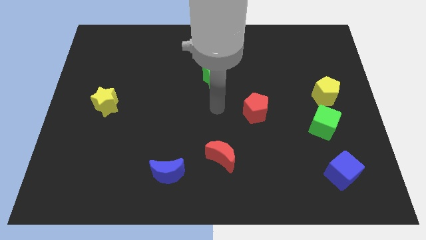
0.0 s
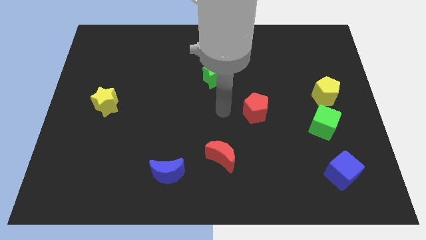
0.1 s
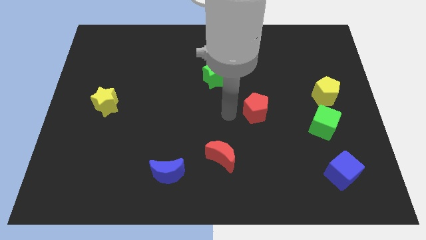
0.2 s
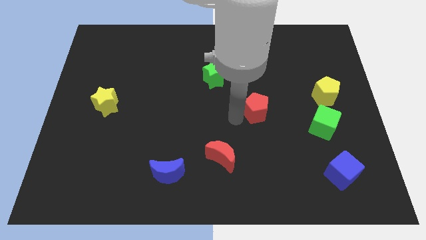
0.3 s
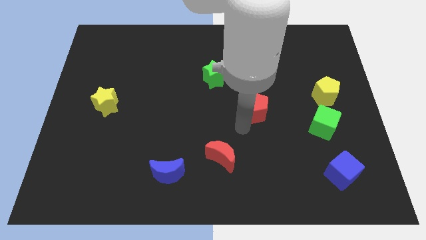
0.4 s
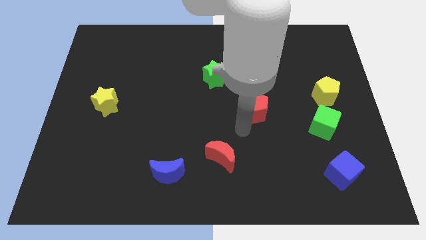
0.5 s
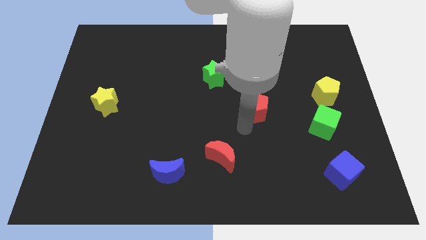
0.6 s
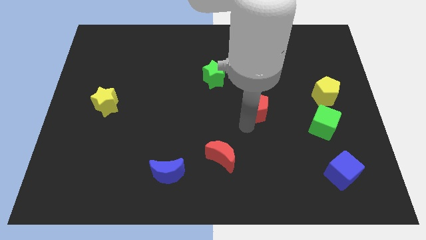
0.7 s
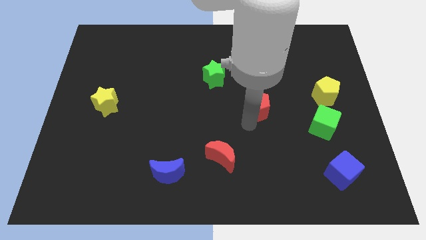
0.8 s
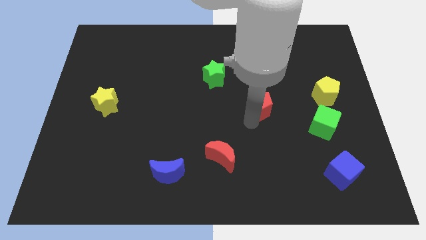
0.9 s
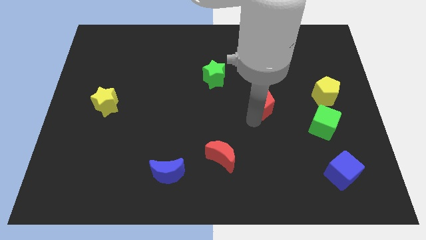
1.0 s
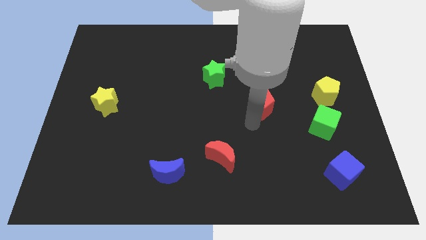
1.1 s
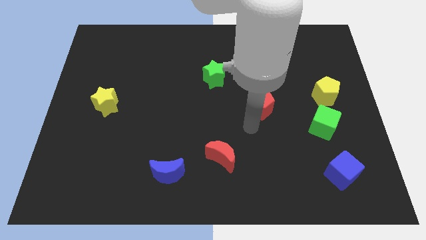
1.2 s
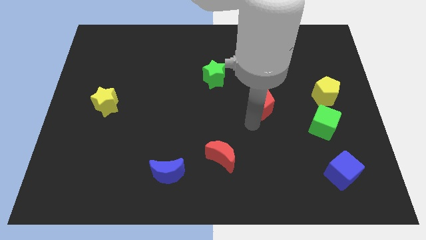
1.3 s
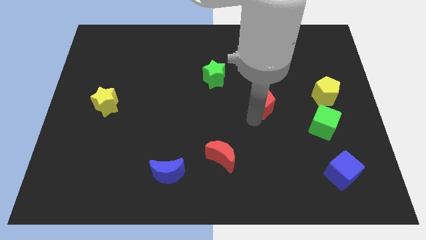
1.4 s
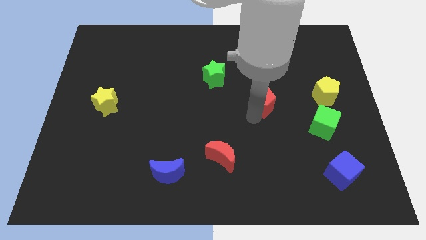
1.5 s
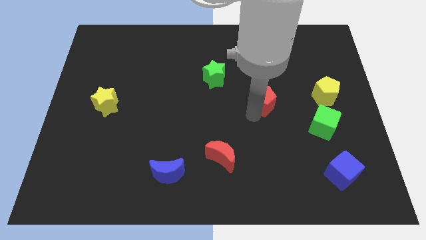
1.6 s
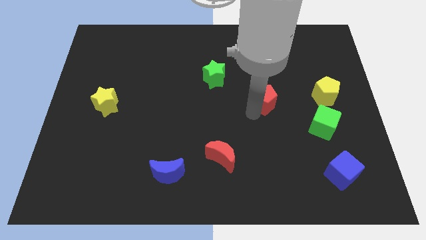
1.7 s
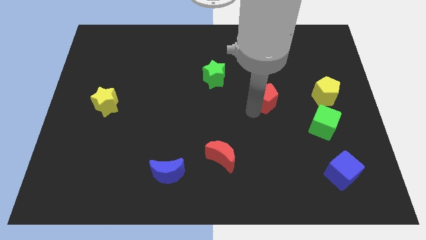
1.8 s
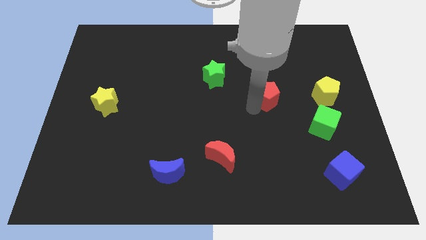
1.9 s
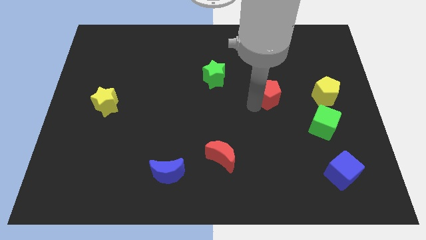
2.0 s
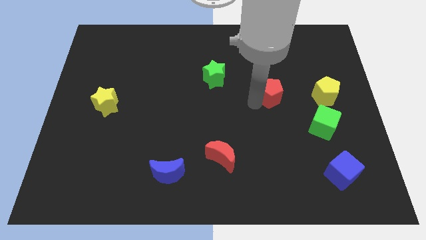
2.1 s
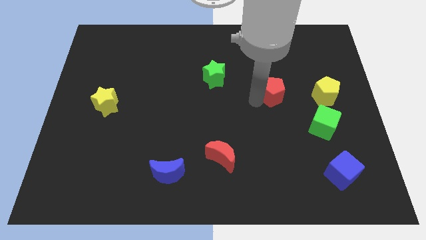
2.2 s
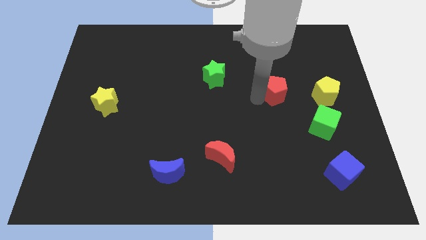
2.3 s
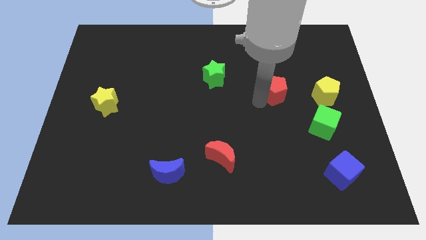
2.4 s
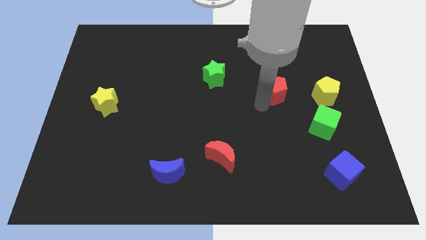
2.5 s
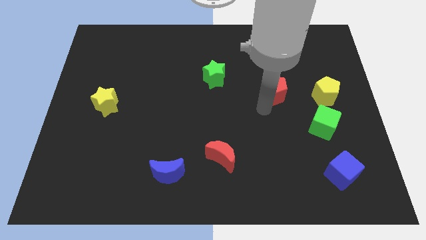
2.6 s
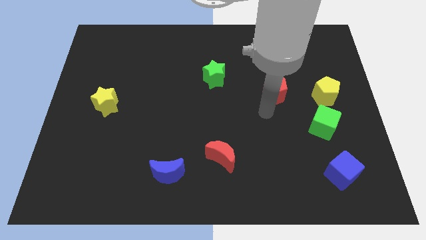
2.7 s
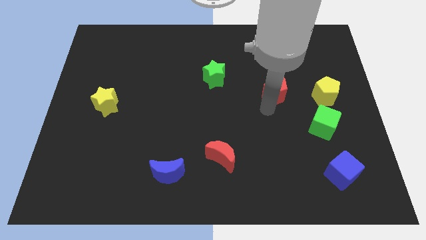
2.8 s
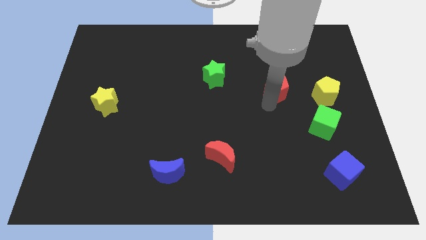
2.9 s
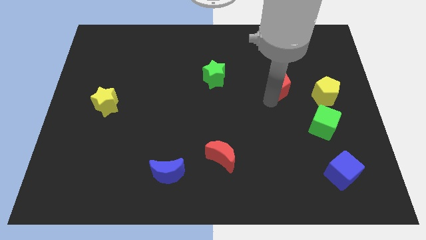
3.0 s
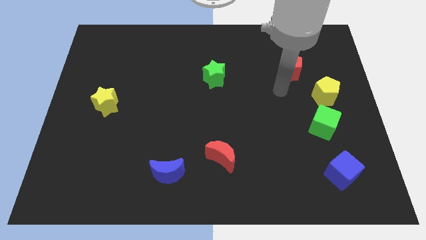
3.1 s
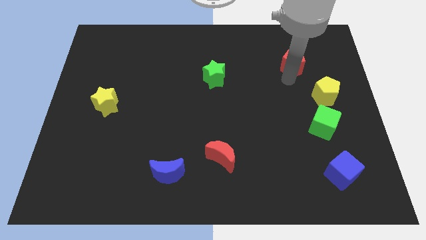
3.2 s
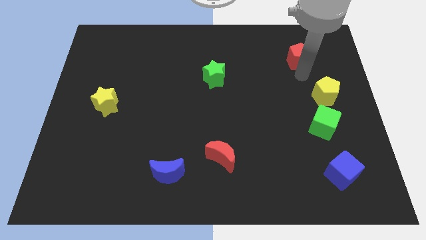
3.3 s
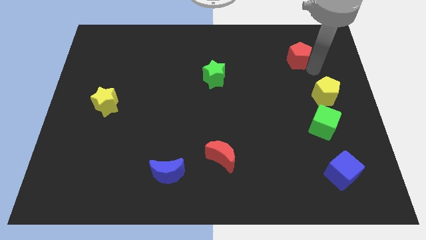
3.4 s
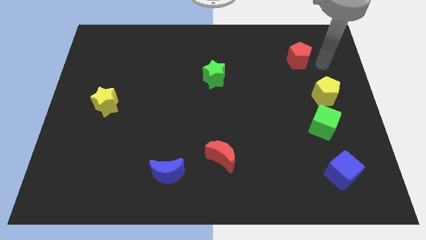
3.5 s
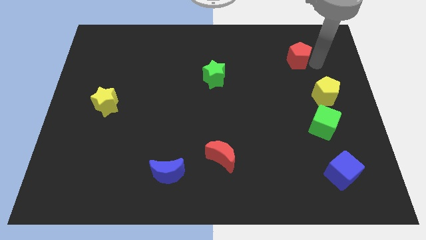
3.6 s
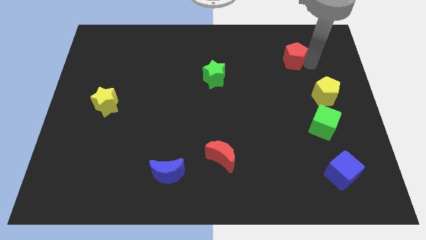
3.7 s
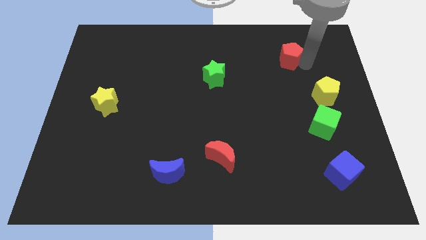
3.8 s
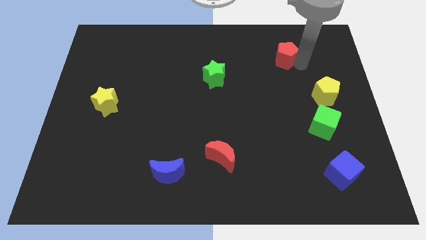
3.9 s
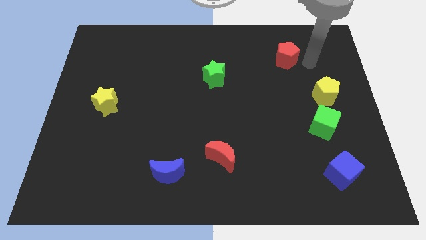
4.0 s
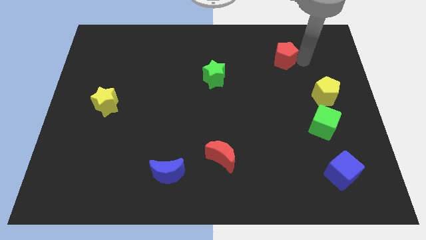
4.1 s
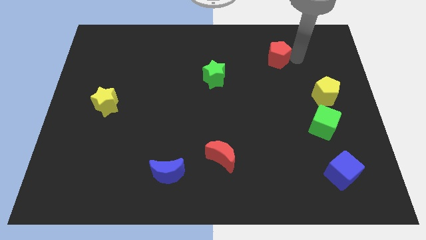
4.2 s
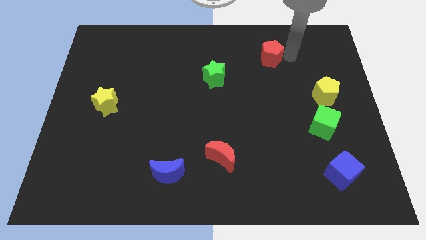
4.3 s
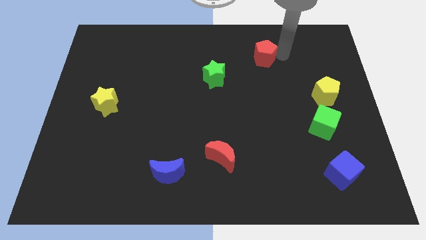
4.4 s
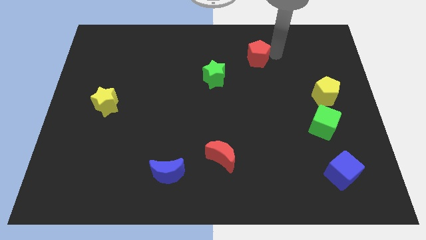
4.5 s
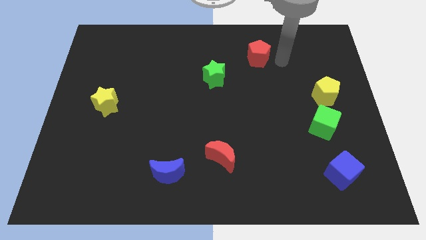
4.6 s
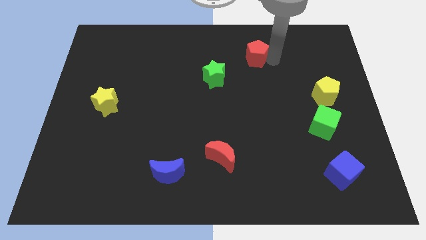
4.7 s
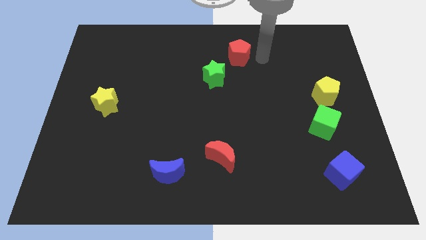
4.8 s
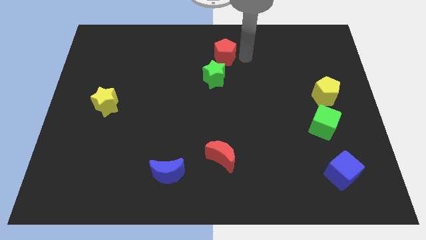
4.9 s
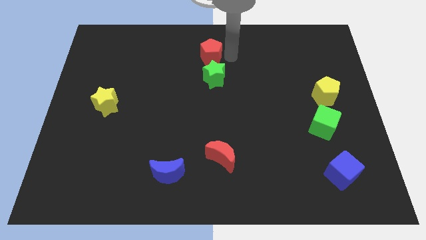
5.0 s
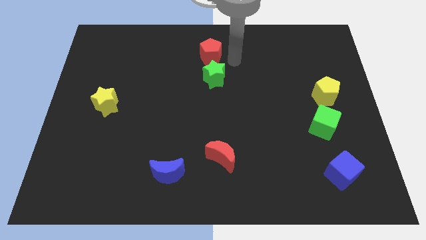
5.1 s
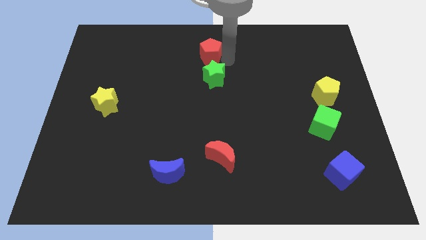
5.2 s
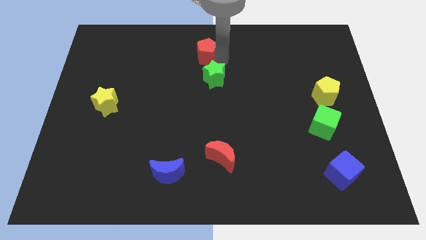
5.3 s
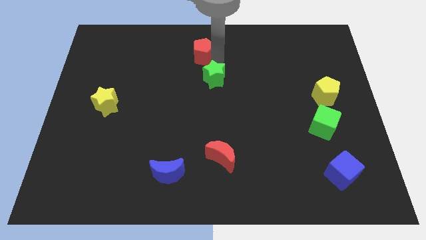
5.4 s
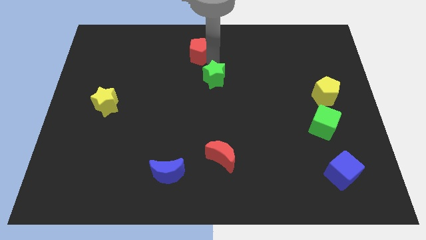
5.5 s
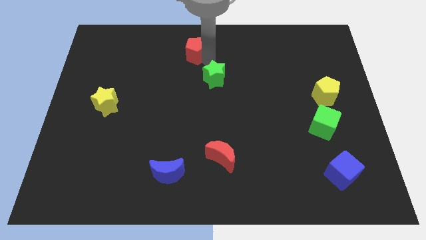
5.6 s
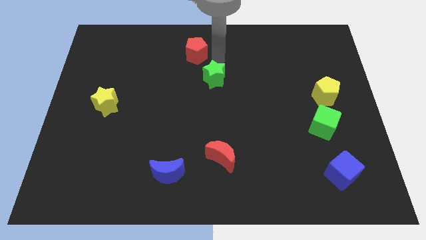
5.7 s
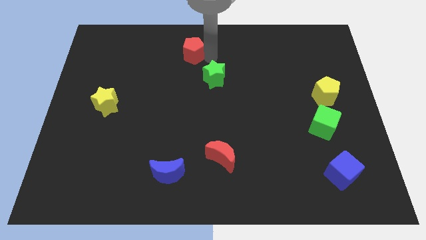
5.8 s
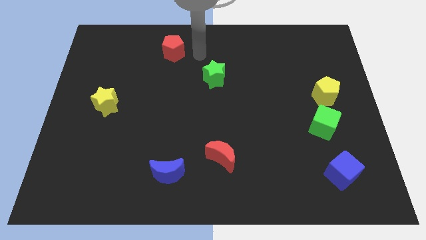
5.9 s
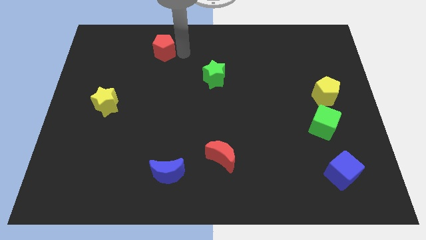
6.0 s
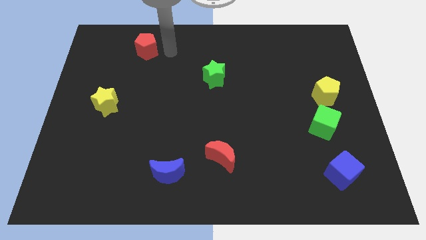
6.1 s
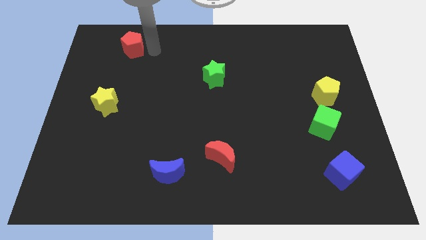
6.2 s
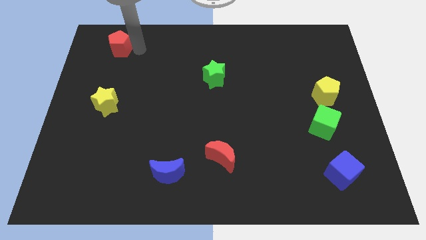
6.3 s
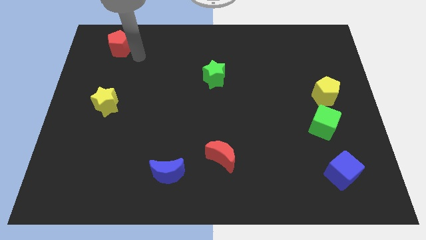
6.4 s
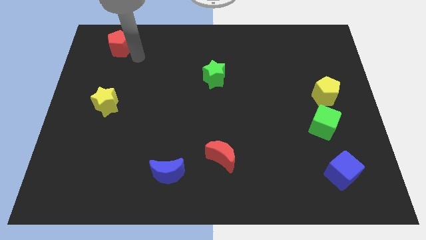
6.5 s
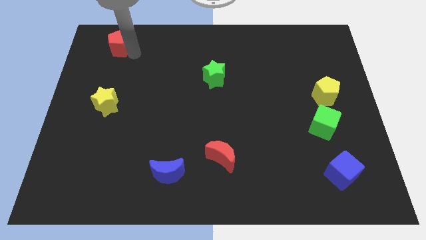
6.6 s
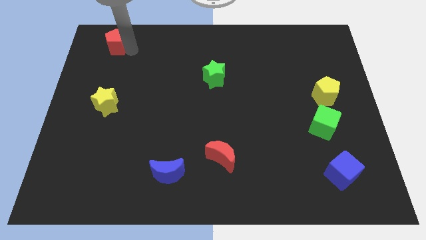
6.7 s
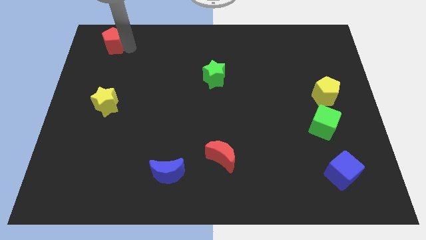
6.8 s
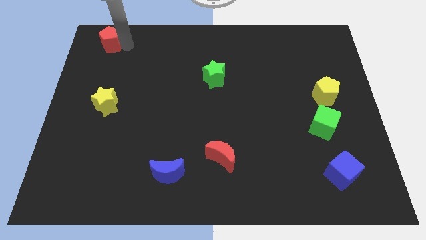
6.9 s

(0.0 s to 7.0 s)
push the red pentagon to the upper left corner
